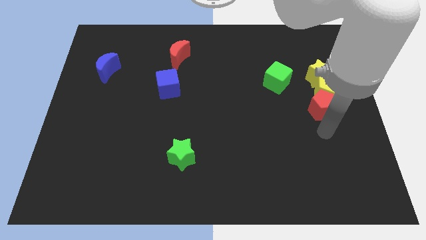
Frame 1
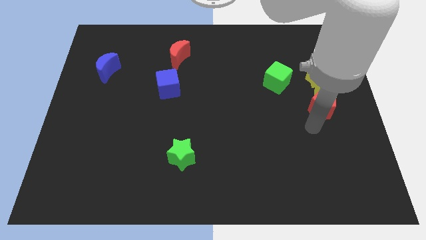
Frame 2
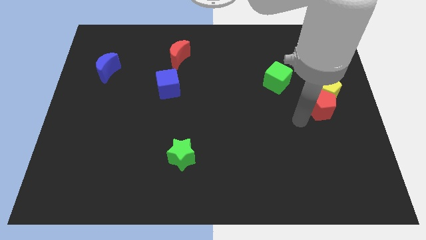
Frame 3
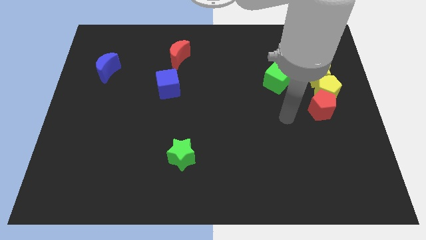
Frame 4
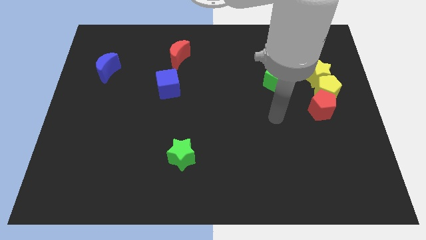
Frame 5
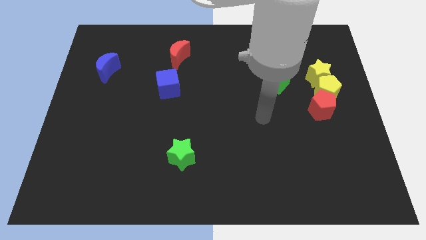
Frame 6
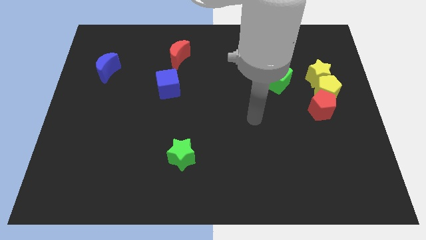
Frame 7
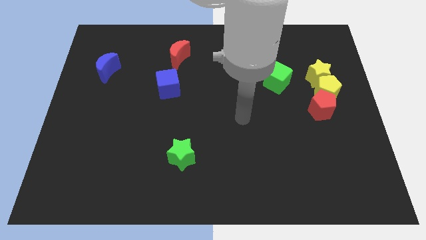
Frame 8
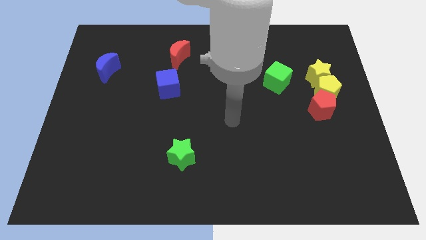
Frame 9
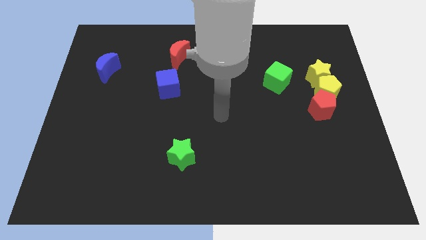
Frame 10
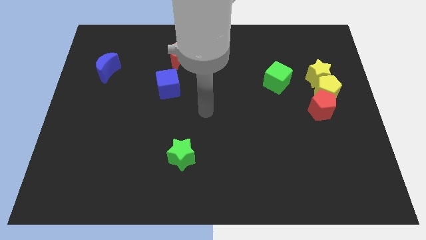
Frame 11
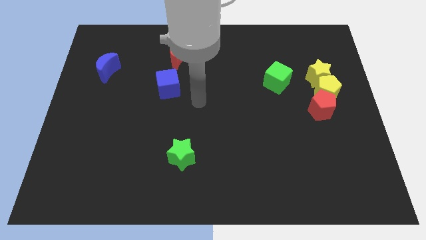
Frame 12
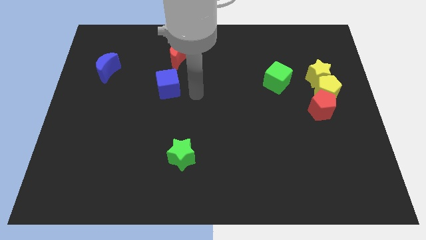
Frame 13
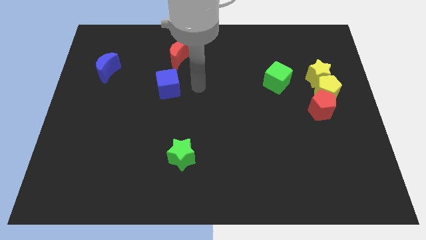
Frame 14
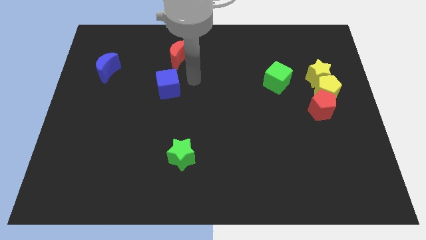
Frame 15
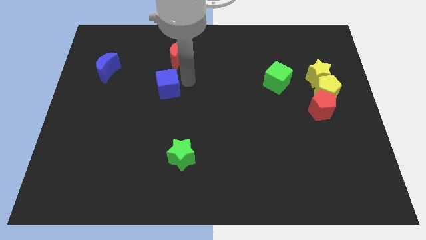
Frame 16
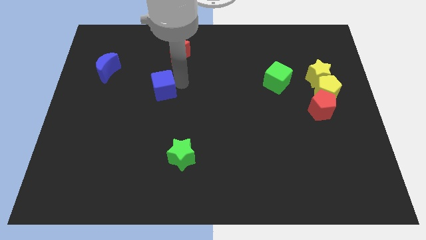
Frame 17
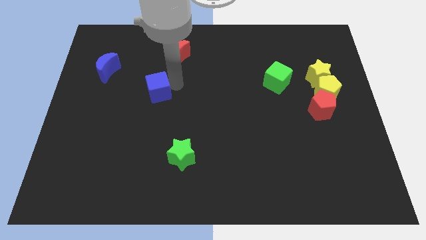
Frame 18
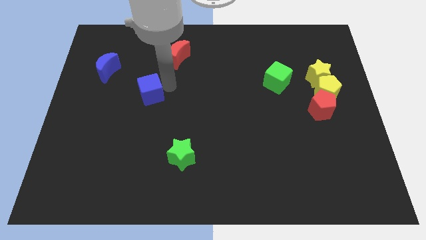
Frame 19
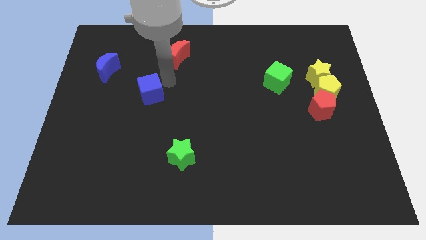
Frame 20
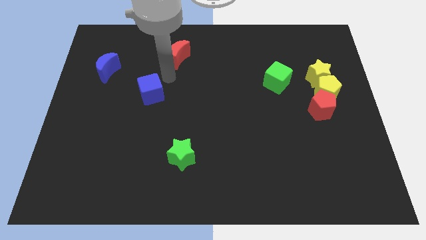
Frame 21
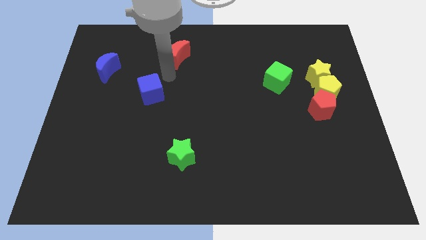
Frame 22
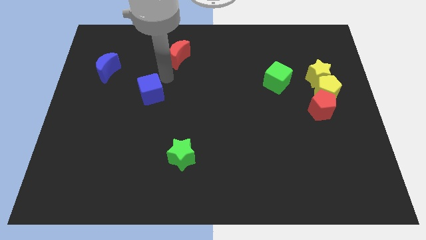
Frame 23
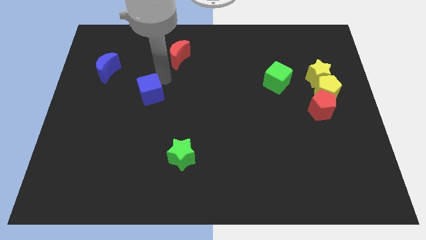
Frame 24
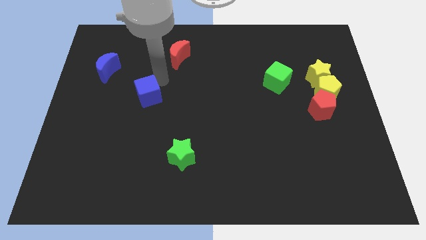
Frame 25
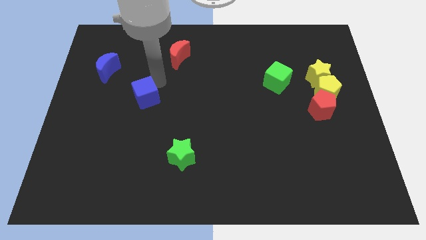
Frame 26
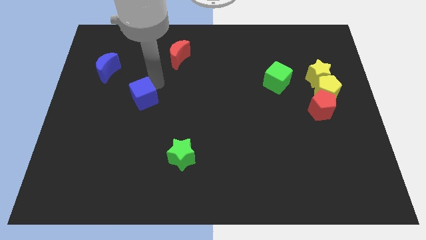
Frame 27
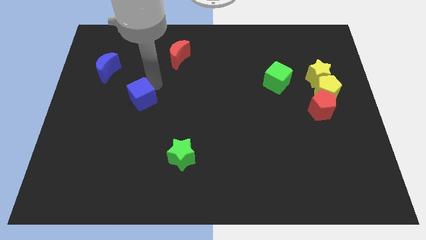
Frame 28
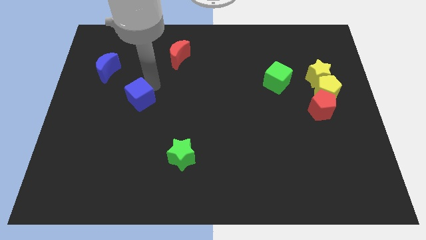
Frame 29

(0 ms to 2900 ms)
slide the blue cube downwards and to the left somewhat

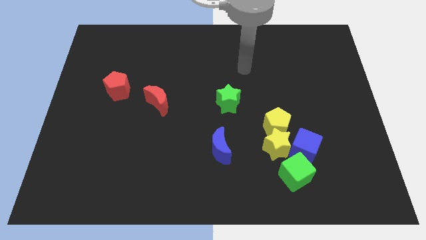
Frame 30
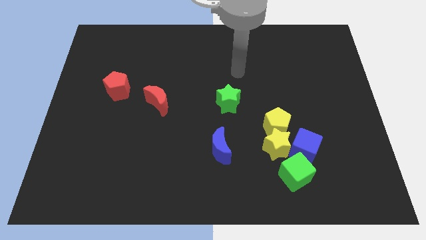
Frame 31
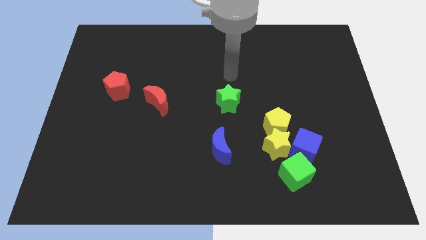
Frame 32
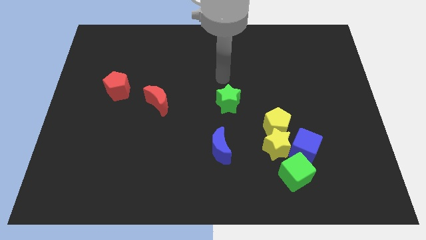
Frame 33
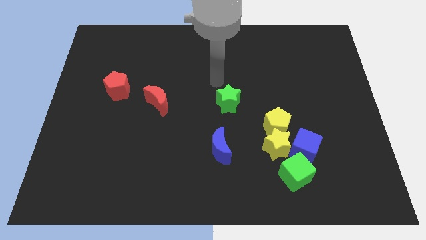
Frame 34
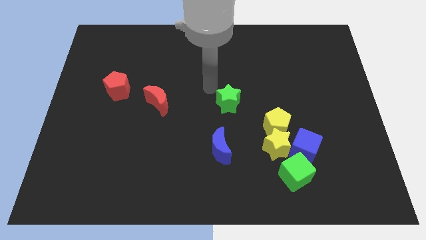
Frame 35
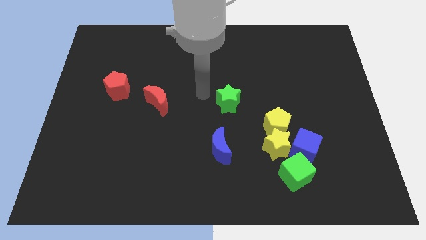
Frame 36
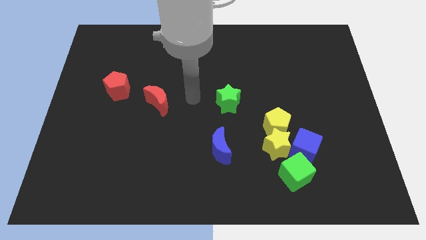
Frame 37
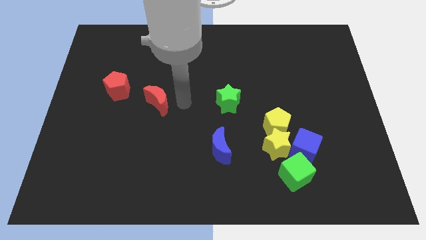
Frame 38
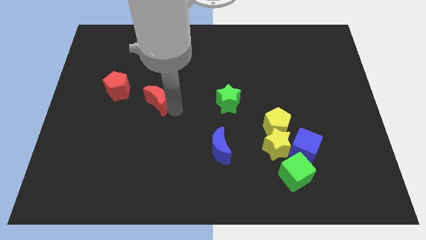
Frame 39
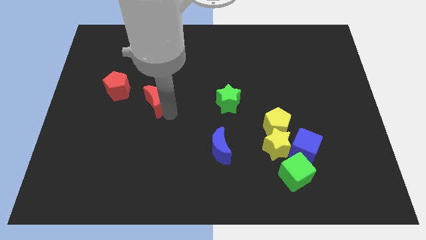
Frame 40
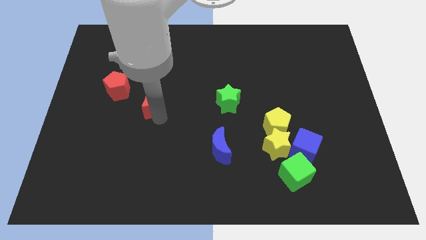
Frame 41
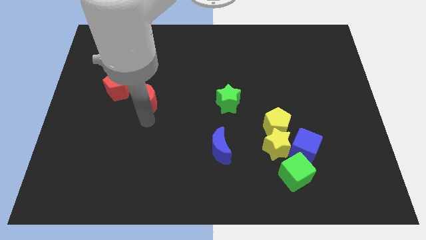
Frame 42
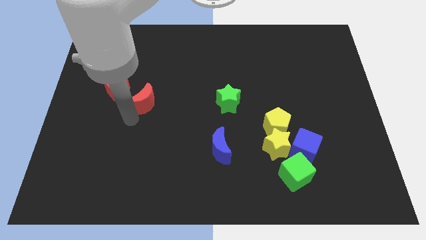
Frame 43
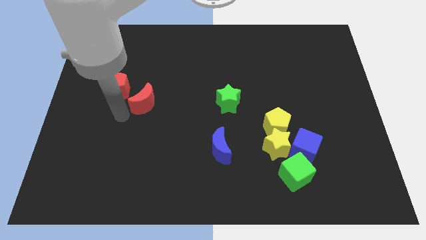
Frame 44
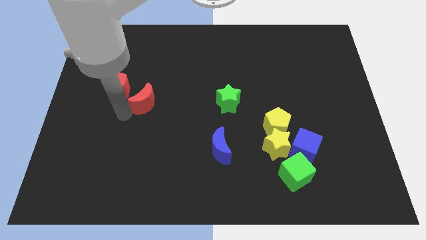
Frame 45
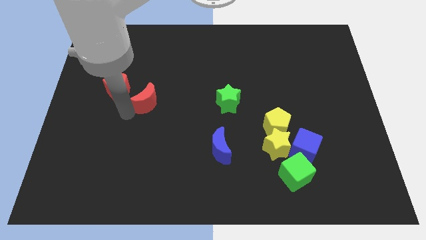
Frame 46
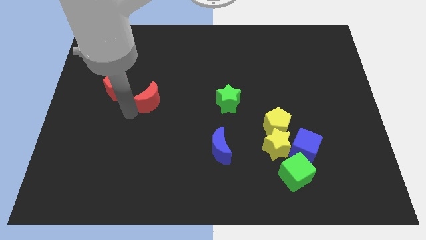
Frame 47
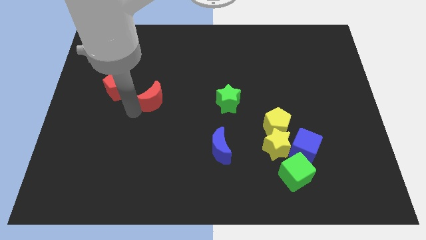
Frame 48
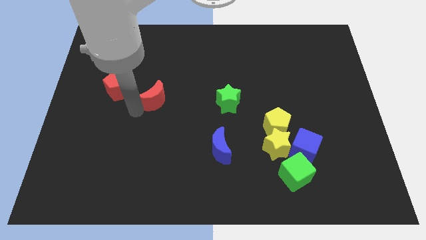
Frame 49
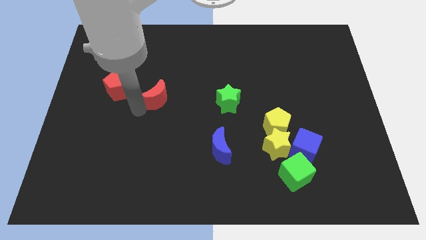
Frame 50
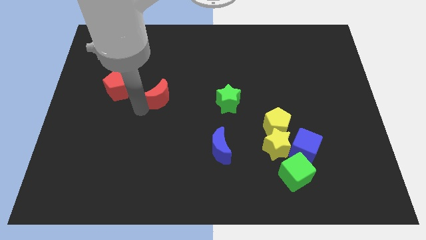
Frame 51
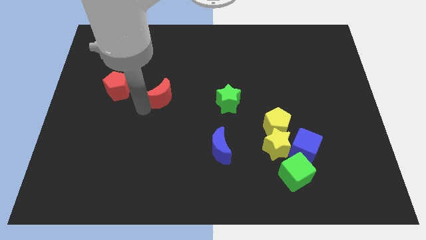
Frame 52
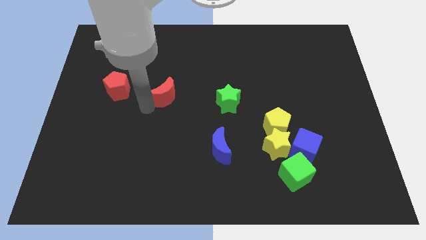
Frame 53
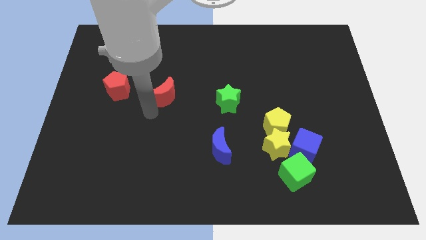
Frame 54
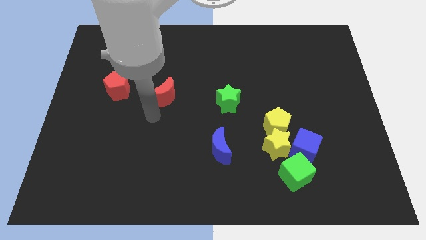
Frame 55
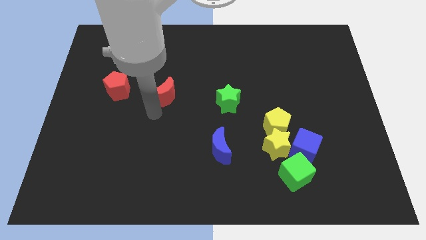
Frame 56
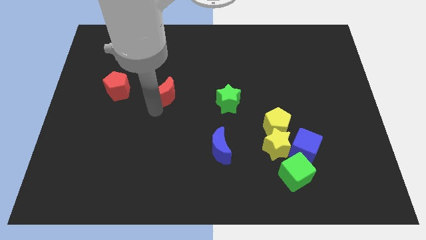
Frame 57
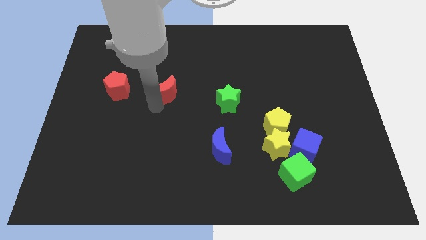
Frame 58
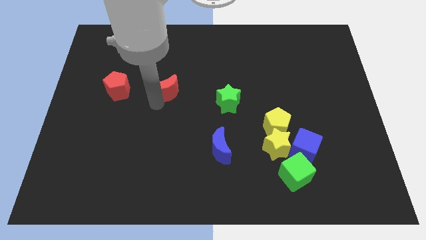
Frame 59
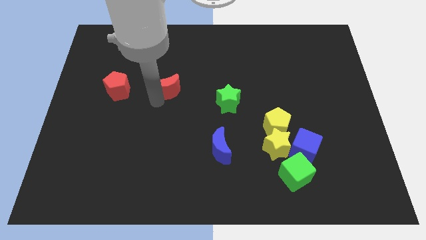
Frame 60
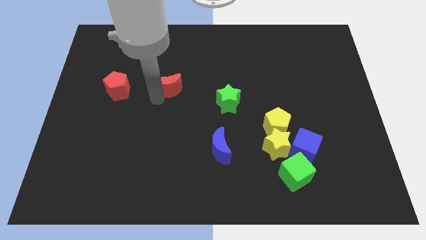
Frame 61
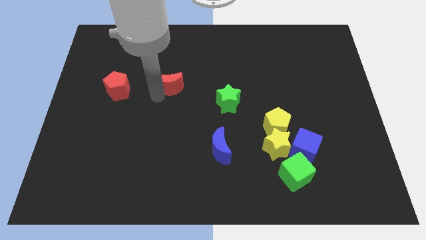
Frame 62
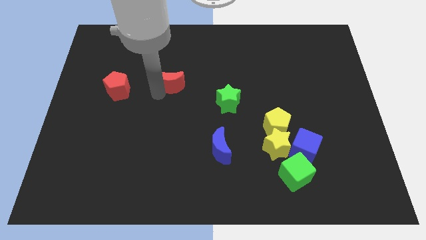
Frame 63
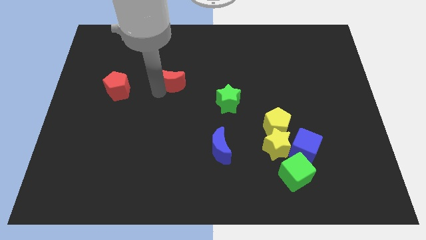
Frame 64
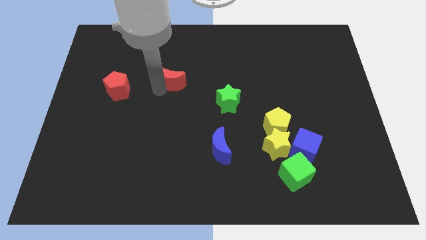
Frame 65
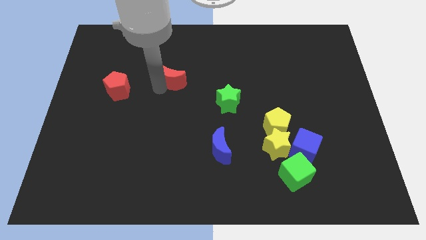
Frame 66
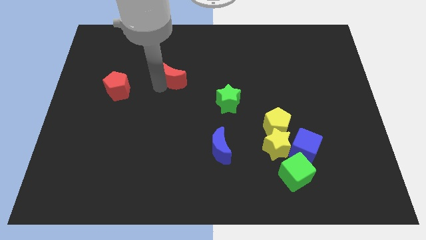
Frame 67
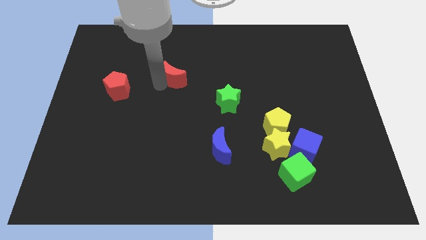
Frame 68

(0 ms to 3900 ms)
push the red moon upwards and then right somewhat

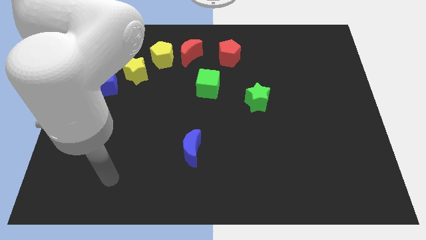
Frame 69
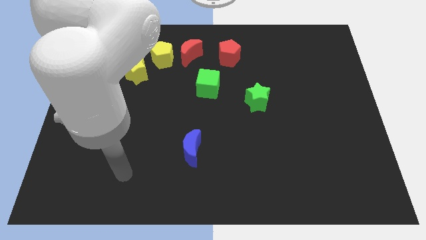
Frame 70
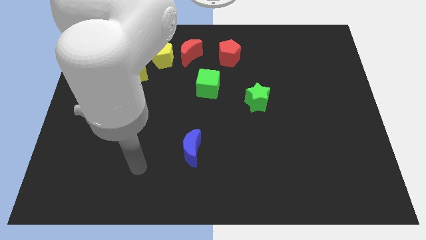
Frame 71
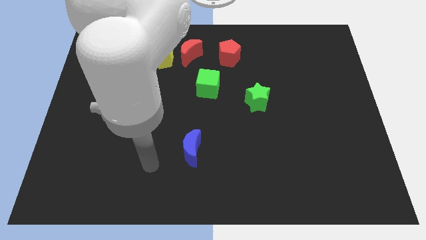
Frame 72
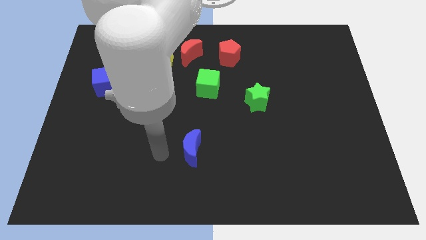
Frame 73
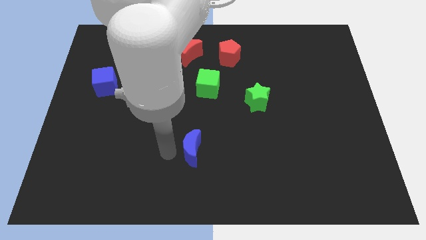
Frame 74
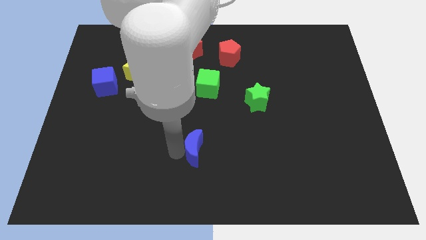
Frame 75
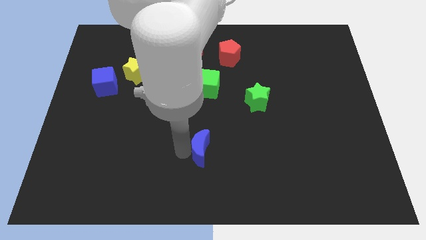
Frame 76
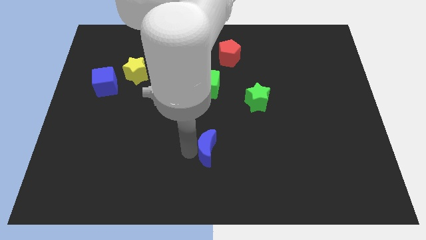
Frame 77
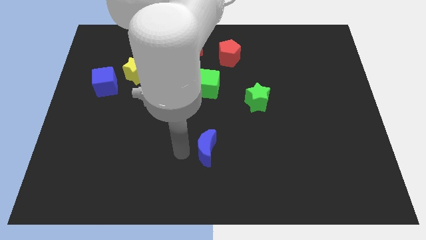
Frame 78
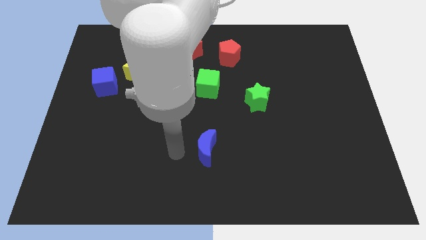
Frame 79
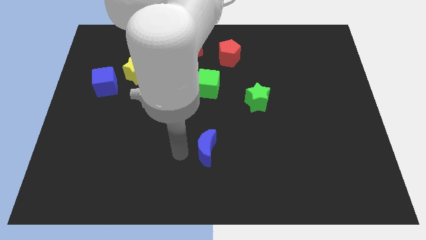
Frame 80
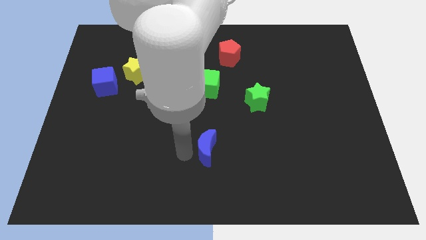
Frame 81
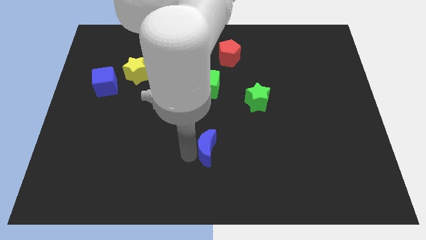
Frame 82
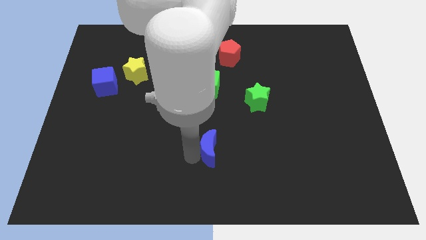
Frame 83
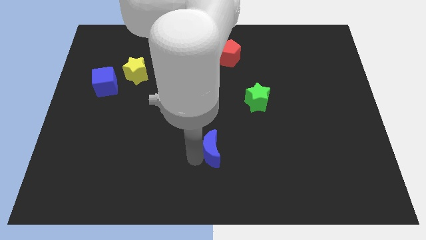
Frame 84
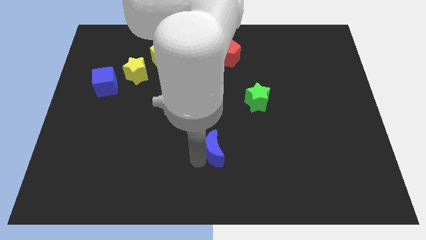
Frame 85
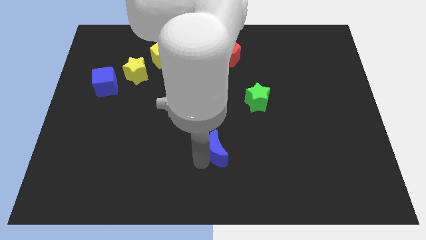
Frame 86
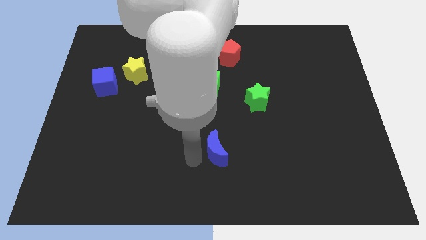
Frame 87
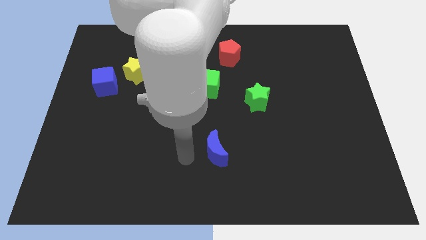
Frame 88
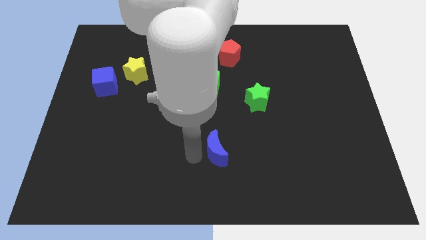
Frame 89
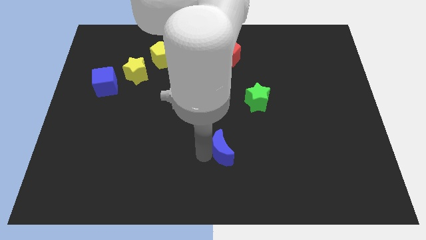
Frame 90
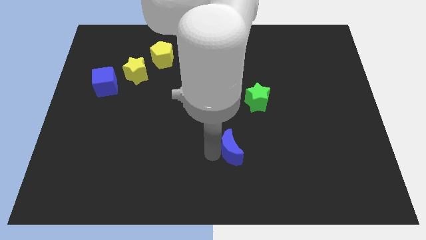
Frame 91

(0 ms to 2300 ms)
slide the blue moon a little to the right
